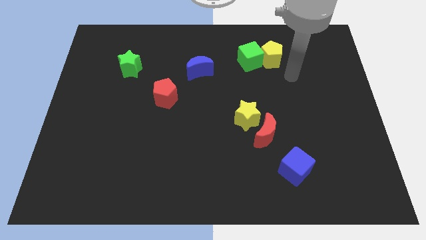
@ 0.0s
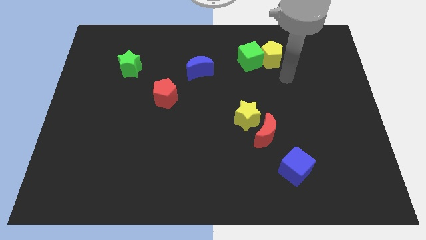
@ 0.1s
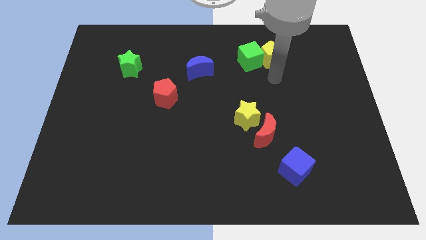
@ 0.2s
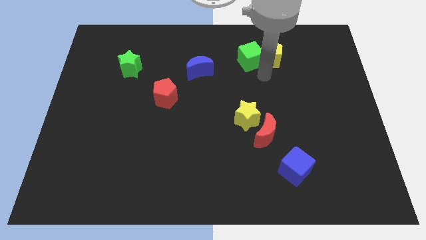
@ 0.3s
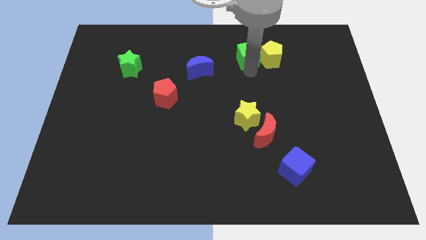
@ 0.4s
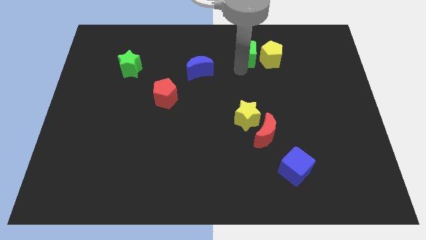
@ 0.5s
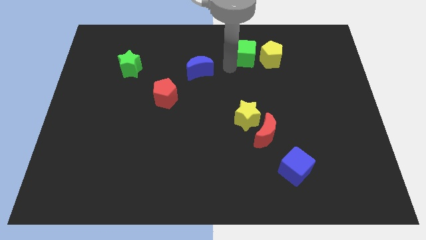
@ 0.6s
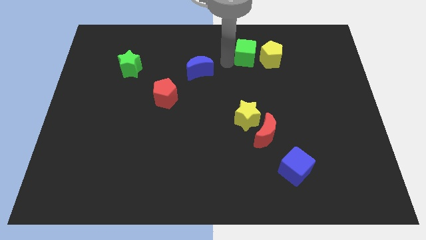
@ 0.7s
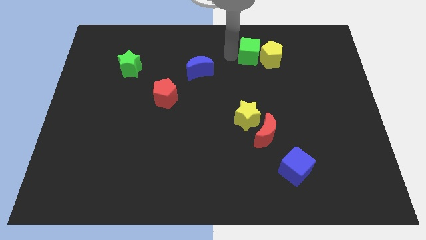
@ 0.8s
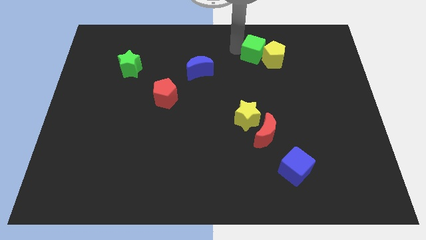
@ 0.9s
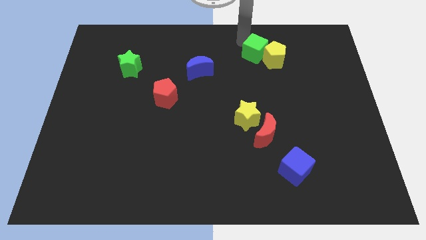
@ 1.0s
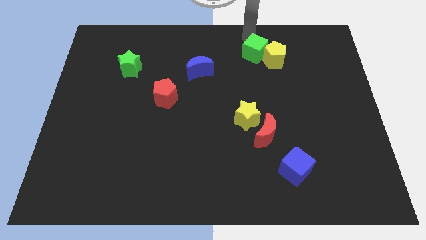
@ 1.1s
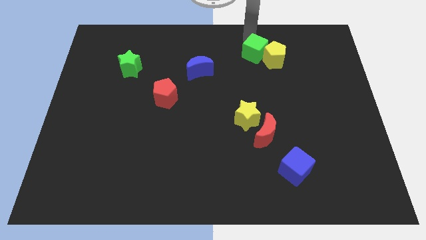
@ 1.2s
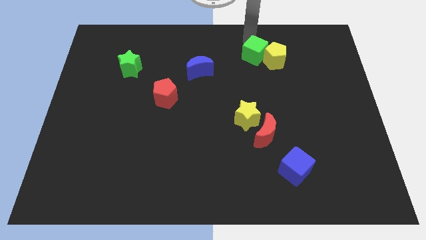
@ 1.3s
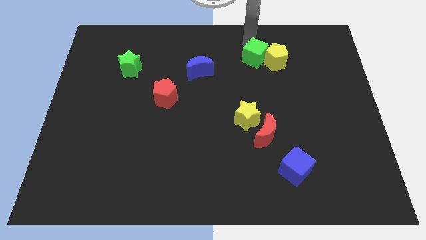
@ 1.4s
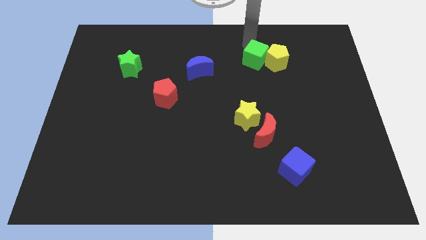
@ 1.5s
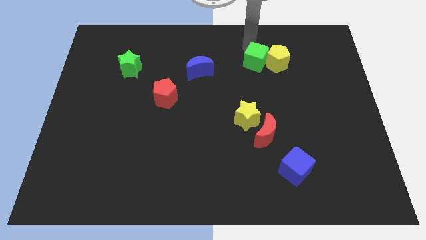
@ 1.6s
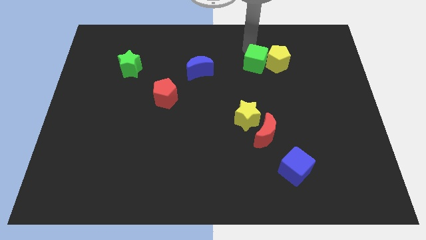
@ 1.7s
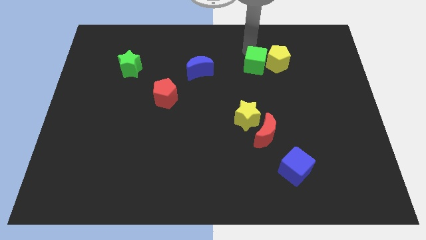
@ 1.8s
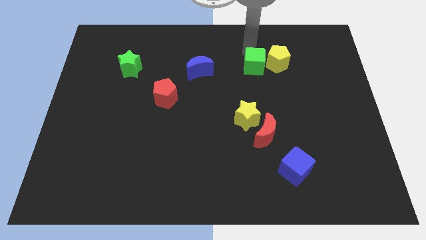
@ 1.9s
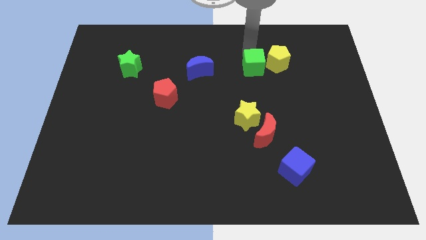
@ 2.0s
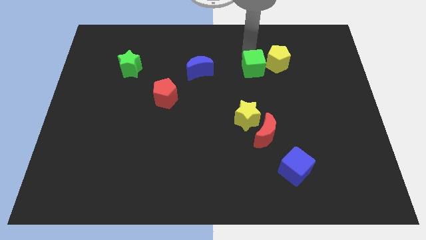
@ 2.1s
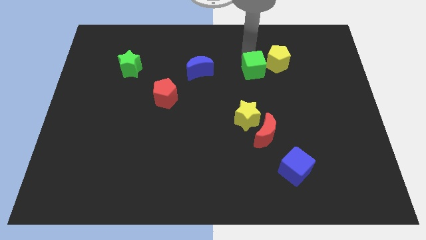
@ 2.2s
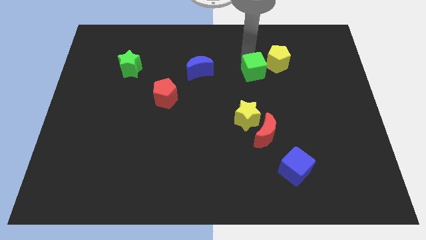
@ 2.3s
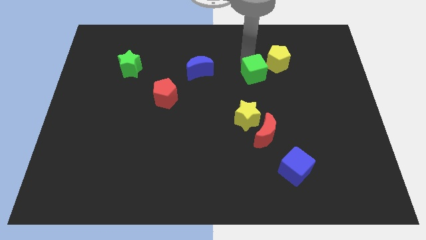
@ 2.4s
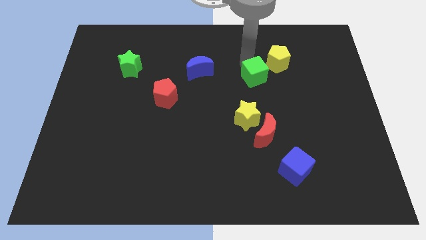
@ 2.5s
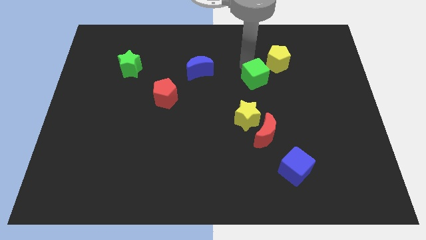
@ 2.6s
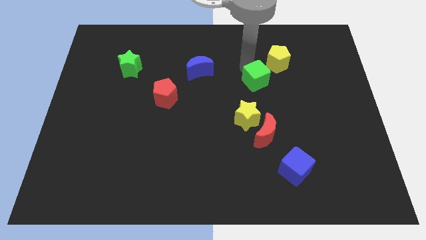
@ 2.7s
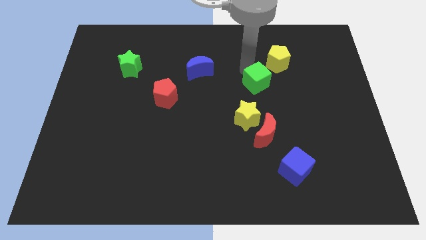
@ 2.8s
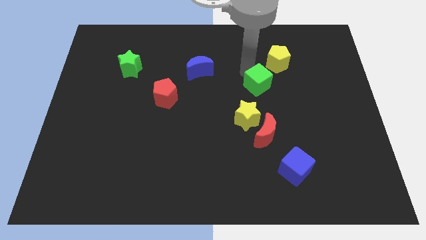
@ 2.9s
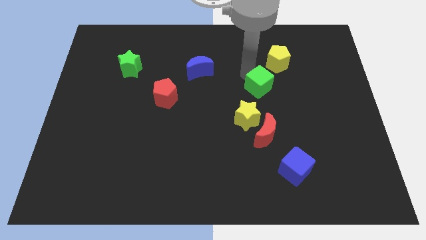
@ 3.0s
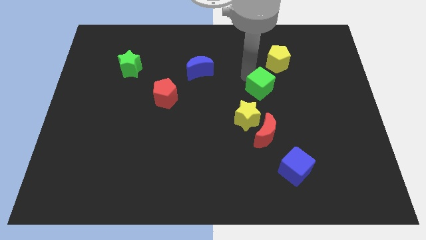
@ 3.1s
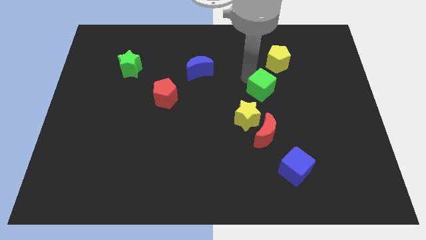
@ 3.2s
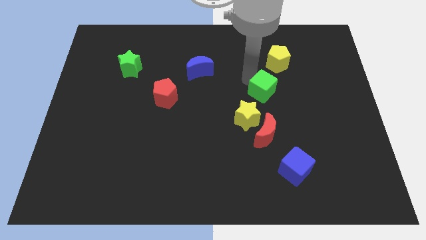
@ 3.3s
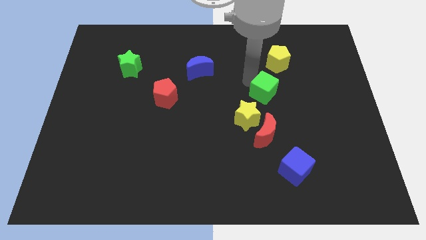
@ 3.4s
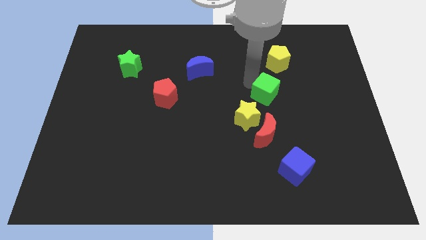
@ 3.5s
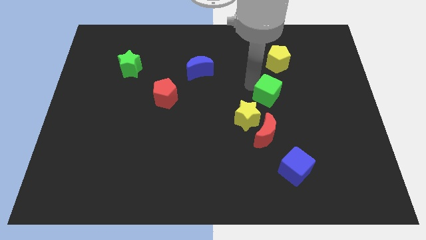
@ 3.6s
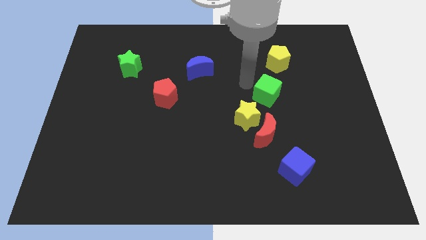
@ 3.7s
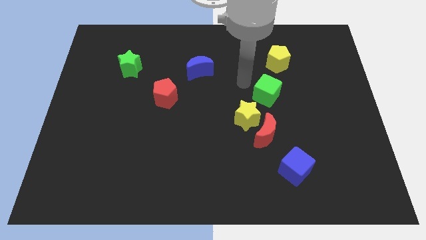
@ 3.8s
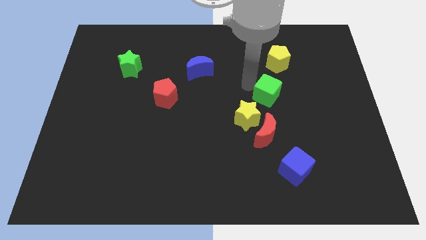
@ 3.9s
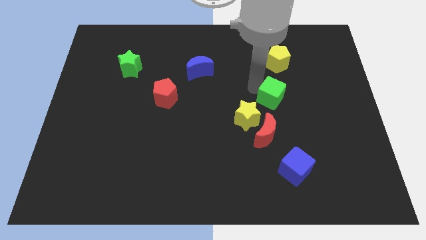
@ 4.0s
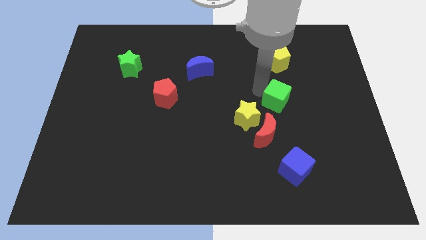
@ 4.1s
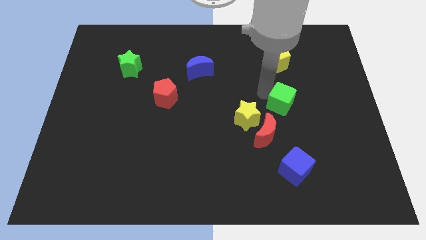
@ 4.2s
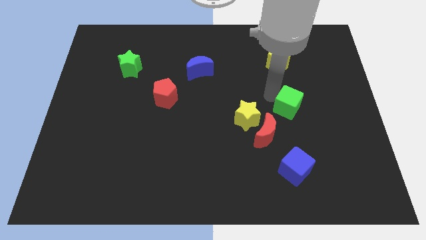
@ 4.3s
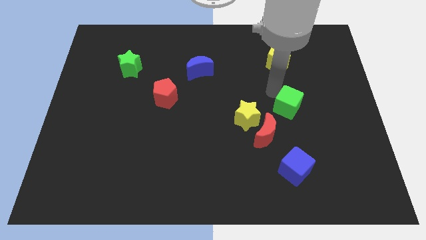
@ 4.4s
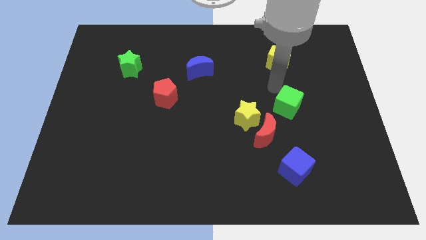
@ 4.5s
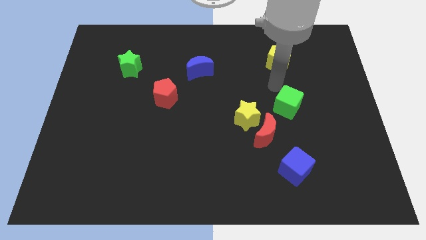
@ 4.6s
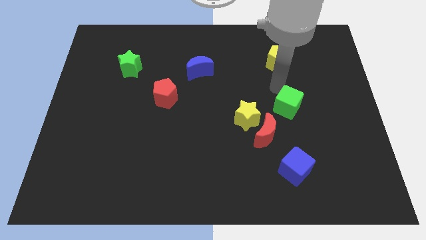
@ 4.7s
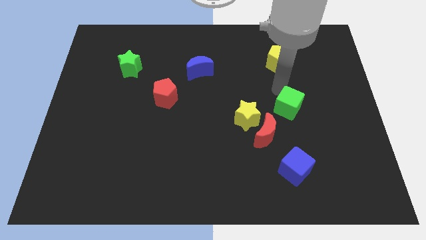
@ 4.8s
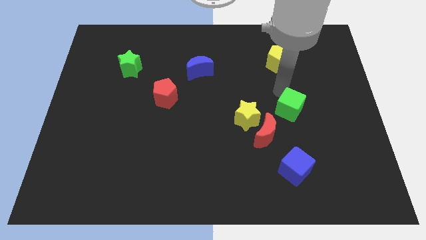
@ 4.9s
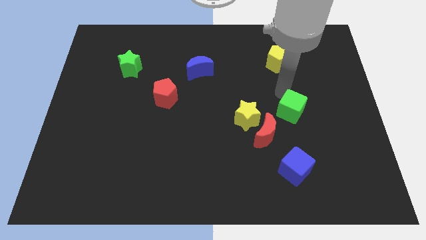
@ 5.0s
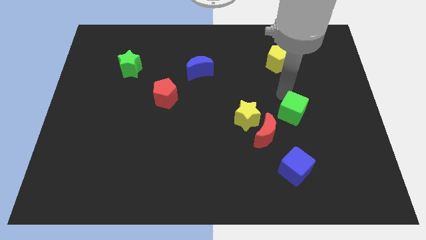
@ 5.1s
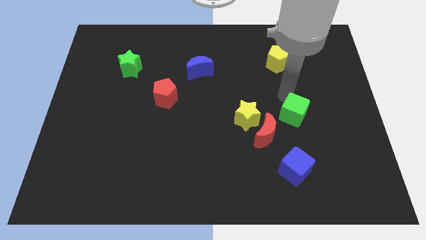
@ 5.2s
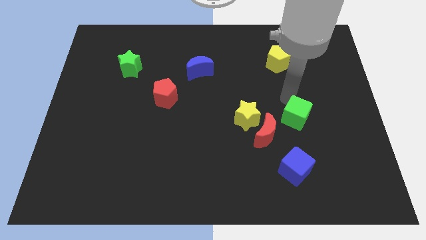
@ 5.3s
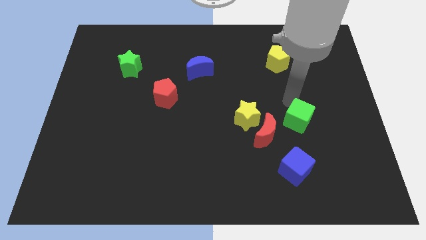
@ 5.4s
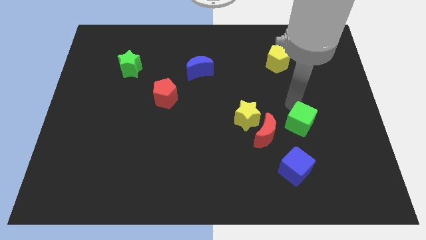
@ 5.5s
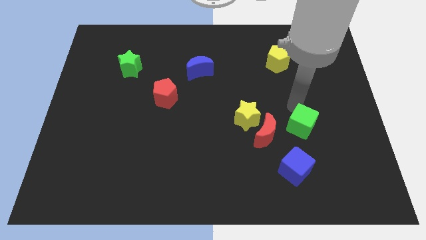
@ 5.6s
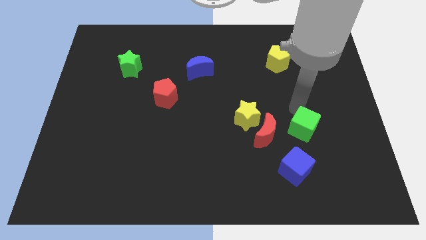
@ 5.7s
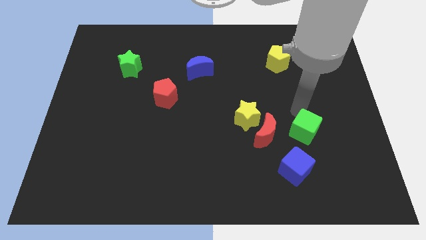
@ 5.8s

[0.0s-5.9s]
move the green cube diagonally up and to the right of the blue cube
